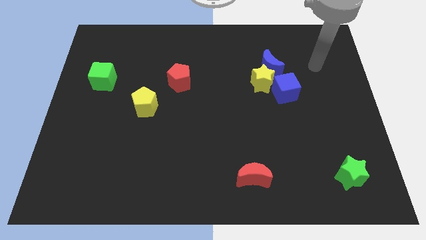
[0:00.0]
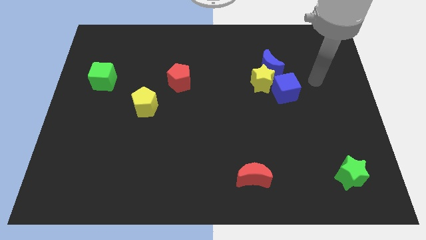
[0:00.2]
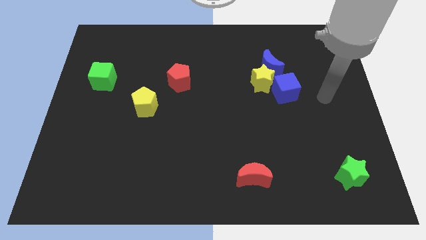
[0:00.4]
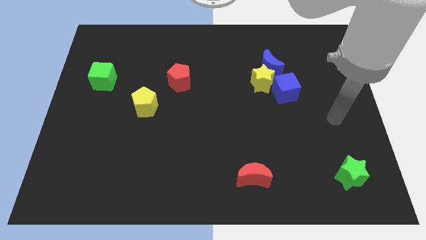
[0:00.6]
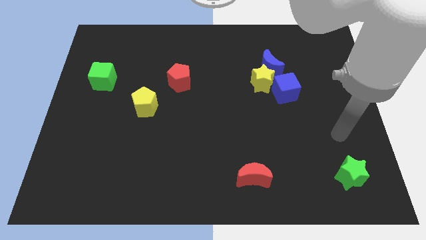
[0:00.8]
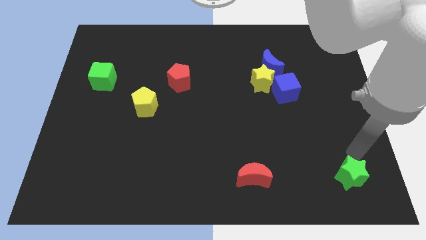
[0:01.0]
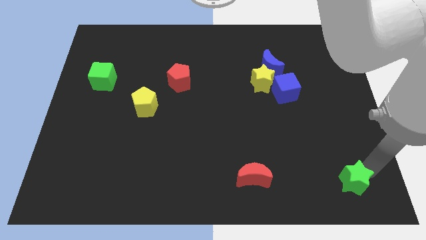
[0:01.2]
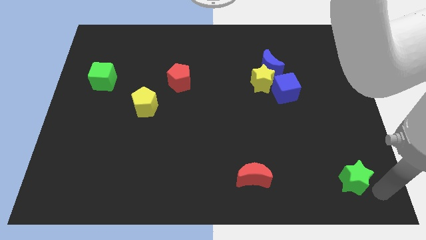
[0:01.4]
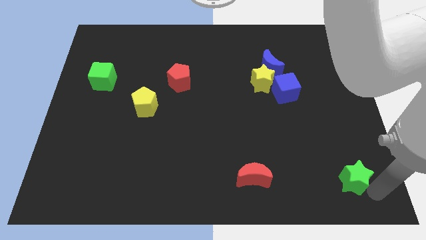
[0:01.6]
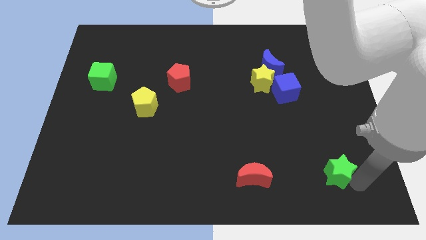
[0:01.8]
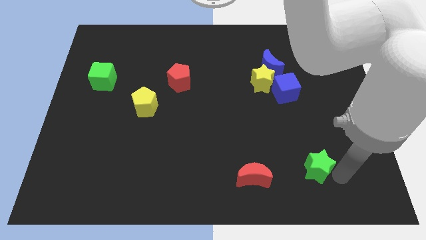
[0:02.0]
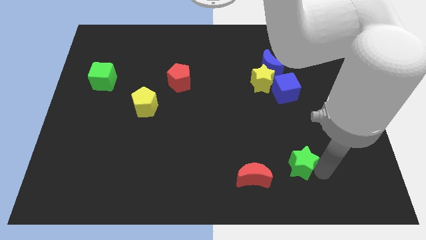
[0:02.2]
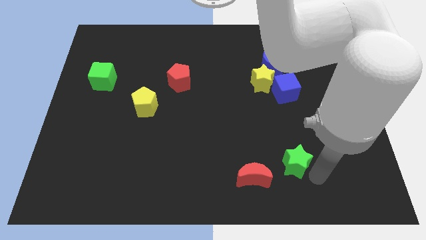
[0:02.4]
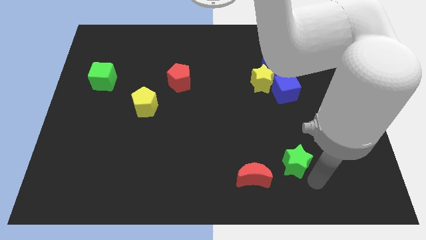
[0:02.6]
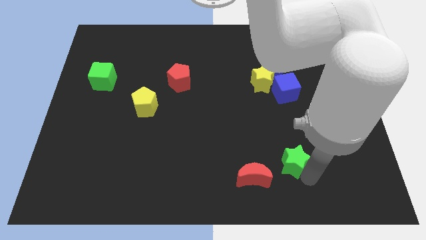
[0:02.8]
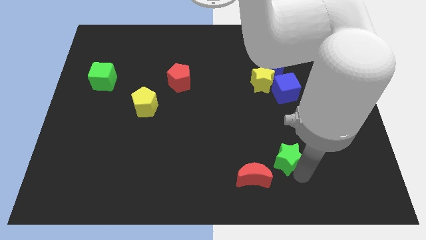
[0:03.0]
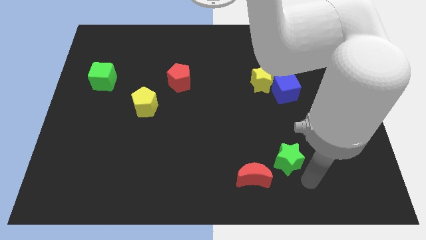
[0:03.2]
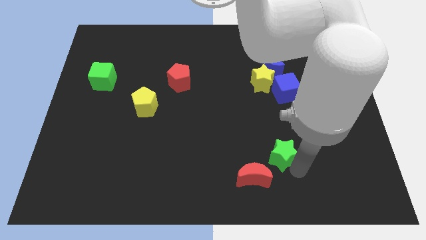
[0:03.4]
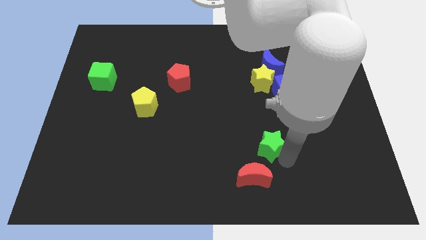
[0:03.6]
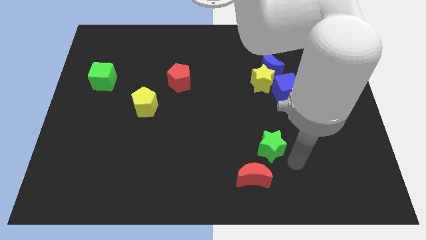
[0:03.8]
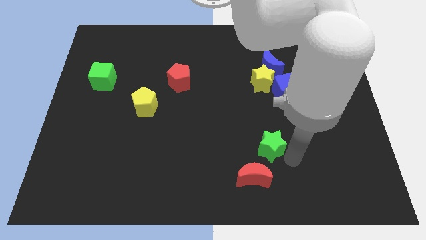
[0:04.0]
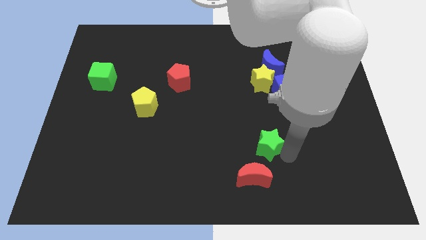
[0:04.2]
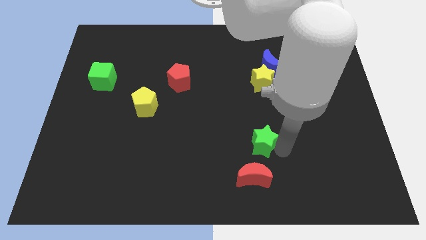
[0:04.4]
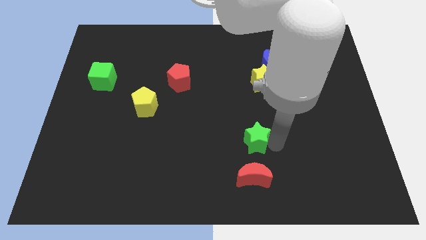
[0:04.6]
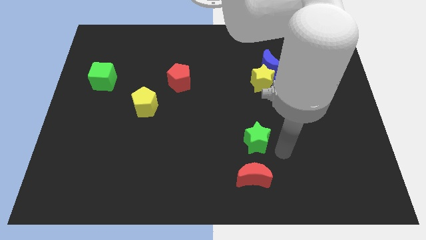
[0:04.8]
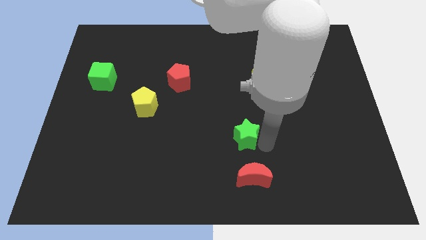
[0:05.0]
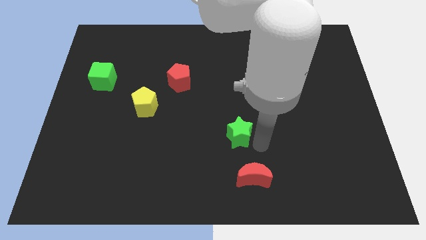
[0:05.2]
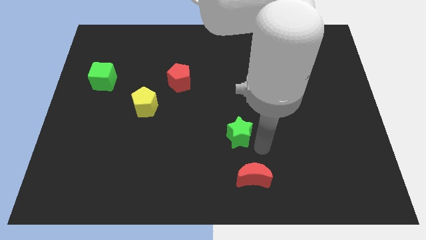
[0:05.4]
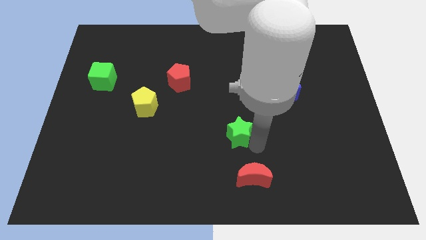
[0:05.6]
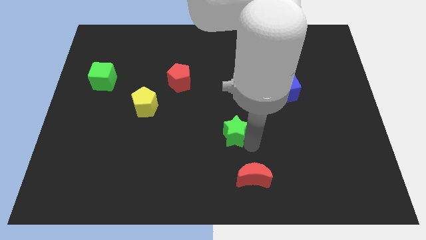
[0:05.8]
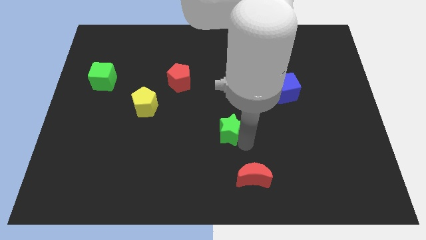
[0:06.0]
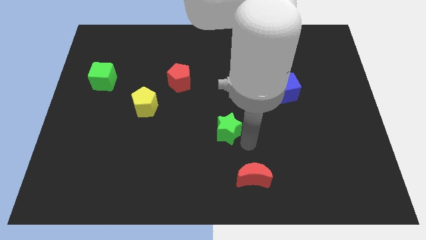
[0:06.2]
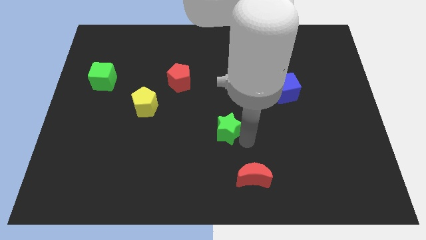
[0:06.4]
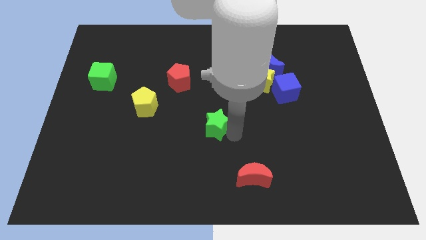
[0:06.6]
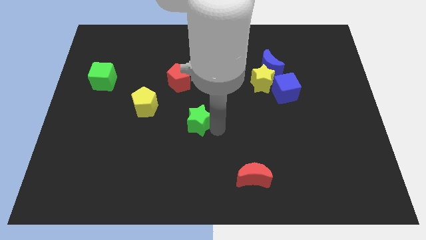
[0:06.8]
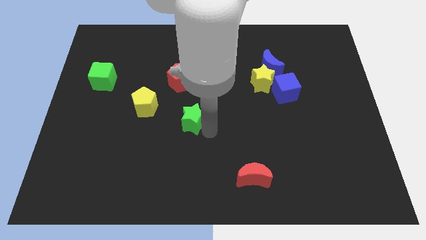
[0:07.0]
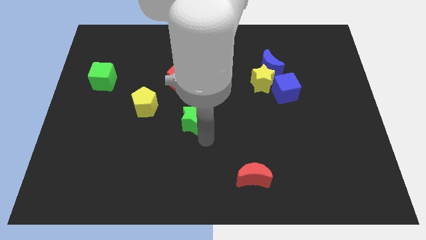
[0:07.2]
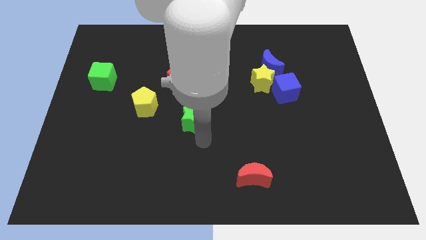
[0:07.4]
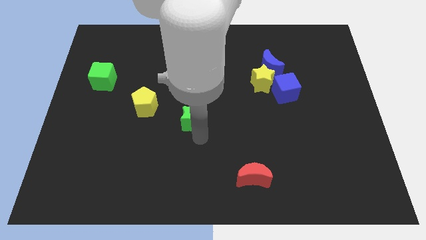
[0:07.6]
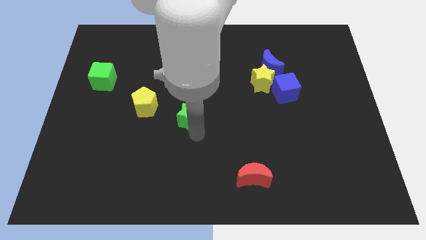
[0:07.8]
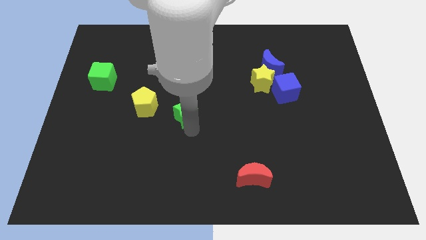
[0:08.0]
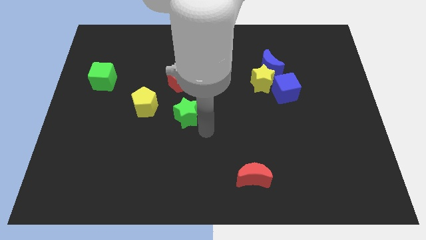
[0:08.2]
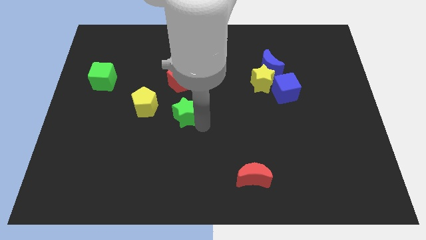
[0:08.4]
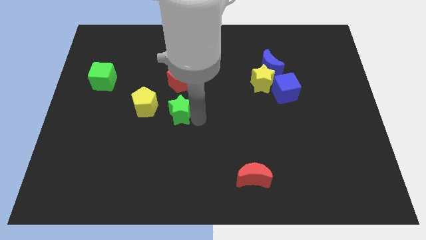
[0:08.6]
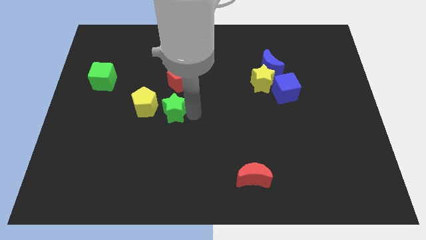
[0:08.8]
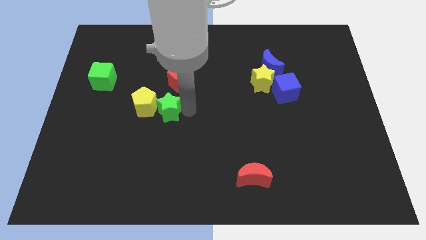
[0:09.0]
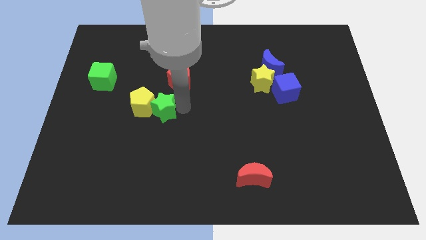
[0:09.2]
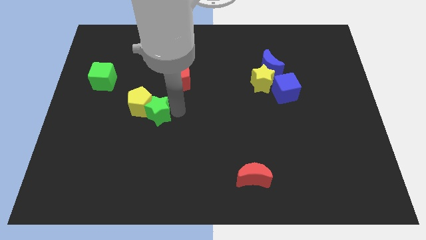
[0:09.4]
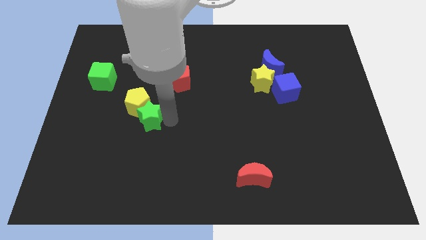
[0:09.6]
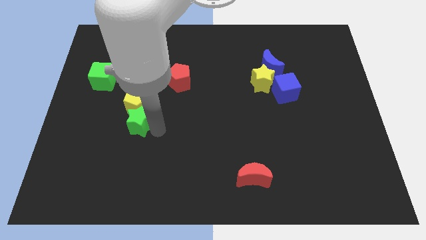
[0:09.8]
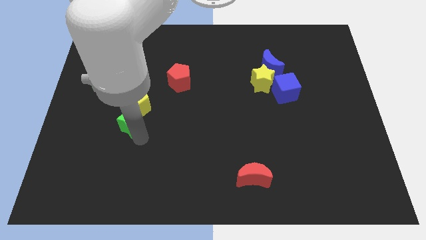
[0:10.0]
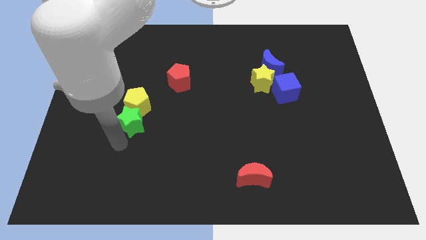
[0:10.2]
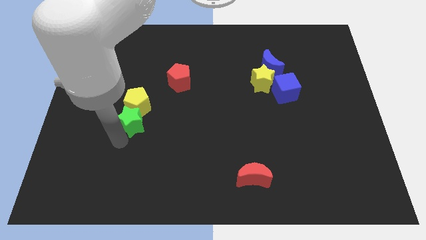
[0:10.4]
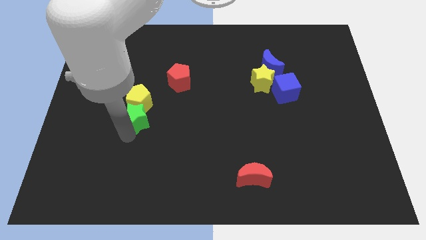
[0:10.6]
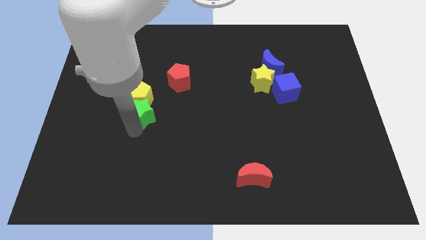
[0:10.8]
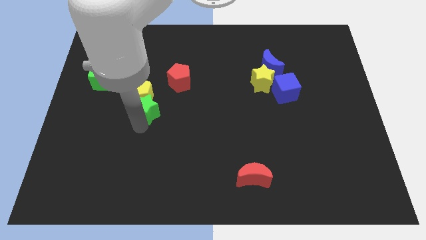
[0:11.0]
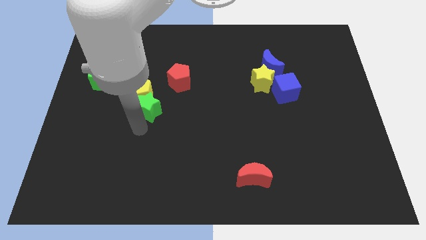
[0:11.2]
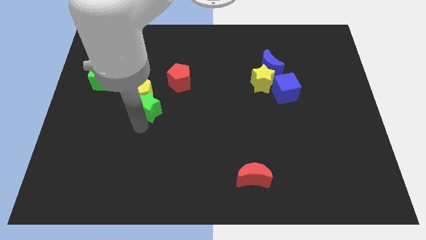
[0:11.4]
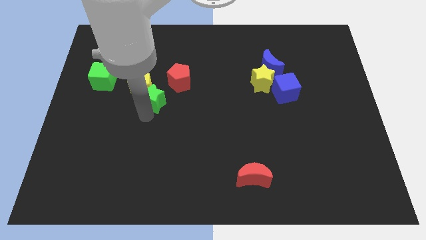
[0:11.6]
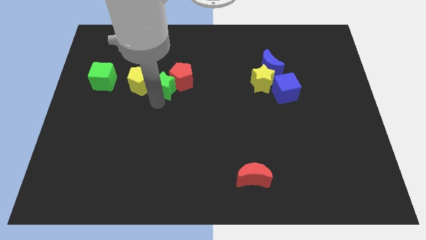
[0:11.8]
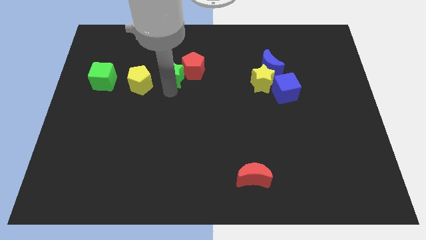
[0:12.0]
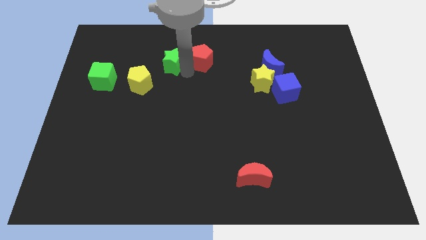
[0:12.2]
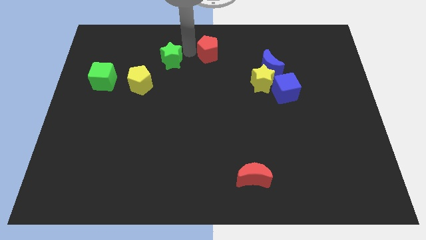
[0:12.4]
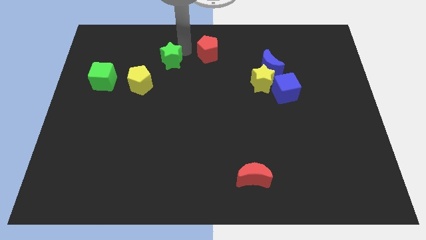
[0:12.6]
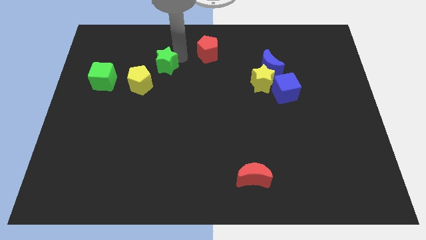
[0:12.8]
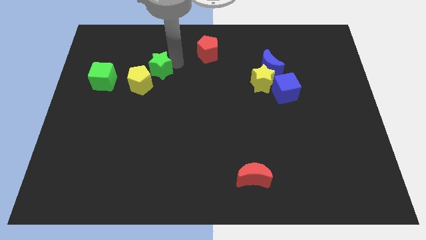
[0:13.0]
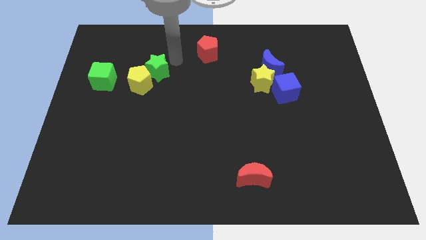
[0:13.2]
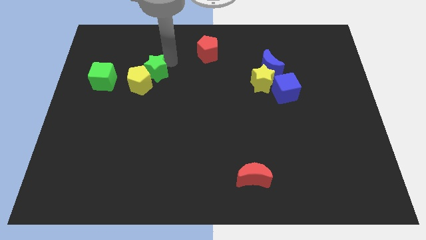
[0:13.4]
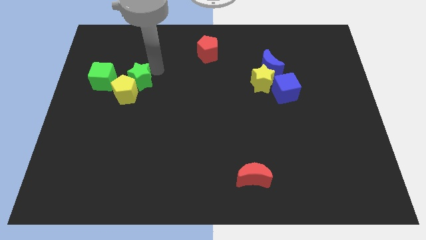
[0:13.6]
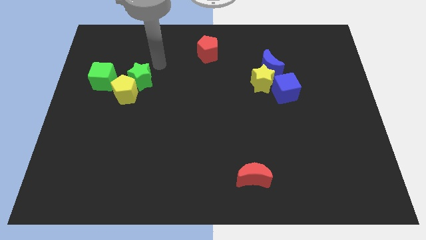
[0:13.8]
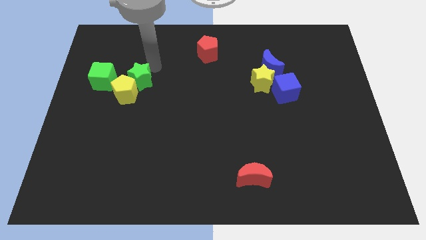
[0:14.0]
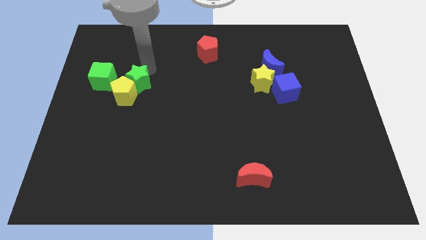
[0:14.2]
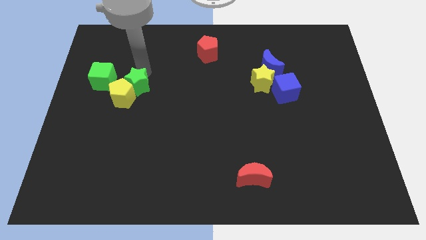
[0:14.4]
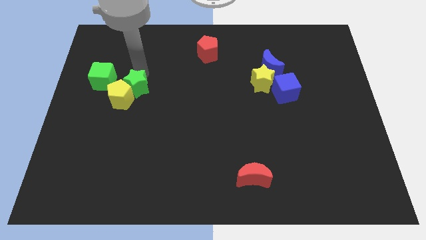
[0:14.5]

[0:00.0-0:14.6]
push the green star diagonally down and to the right of the green cube

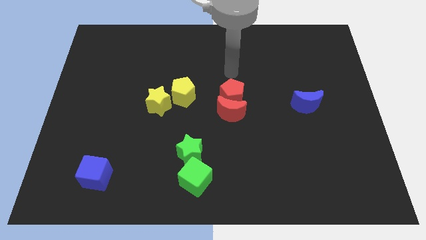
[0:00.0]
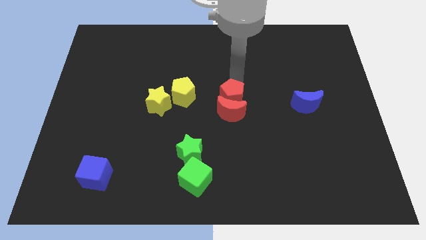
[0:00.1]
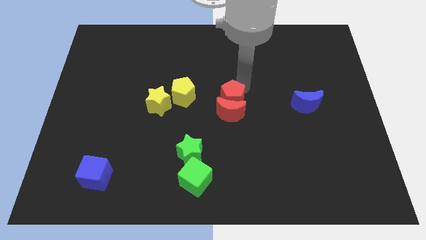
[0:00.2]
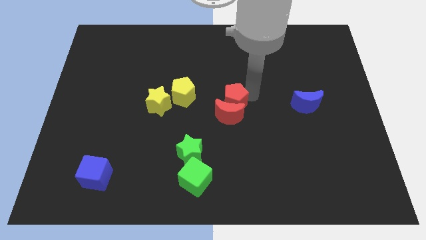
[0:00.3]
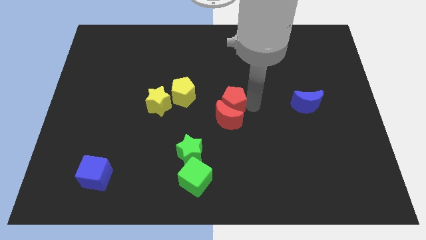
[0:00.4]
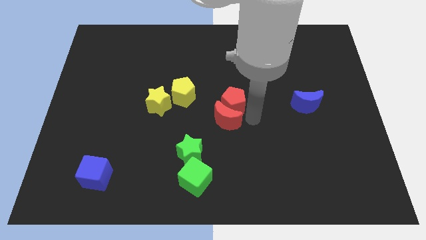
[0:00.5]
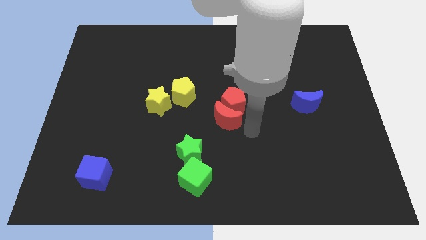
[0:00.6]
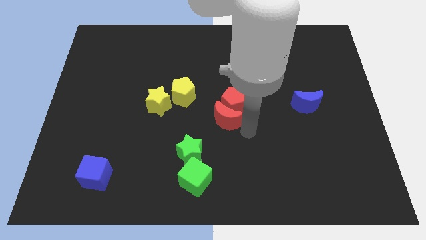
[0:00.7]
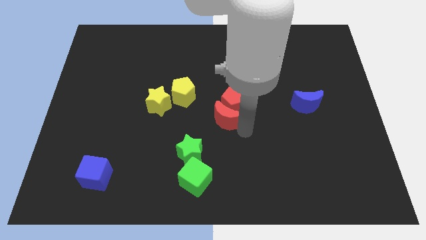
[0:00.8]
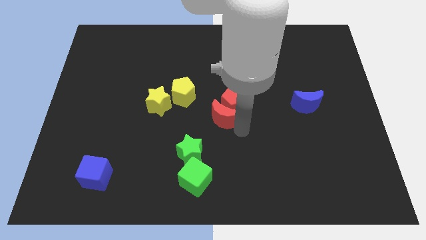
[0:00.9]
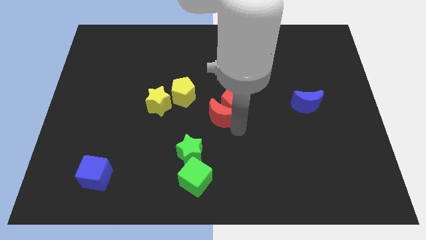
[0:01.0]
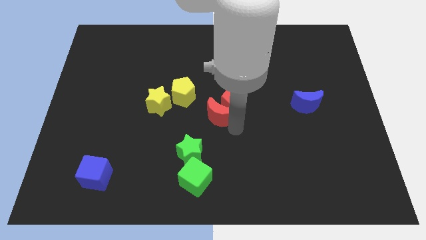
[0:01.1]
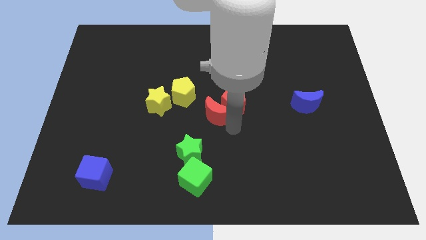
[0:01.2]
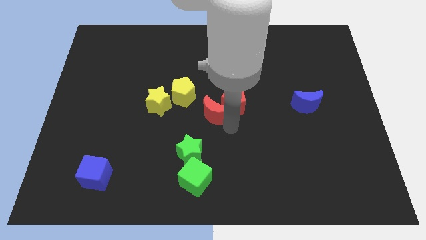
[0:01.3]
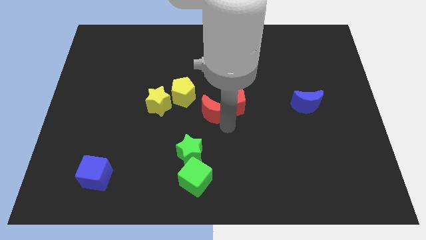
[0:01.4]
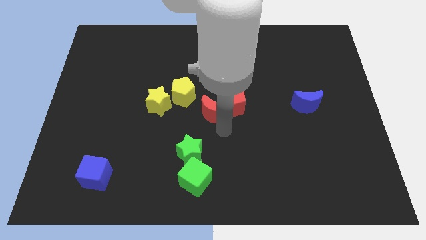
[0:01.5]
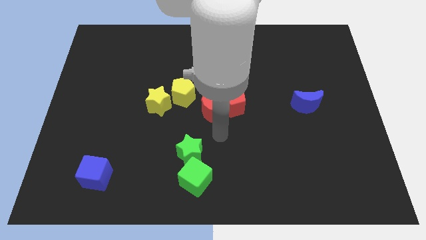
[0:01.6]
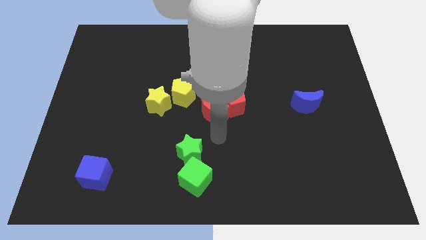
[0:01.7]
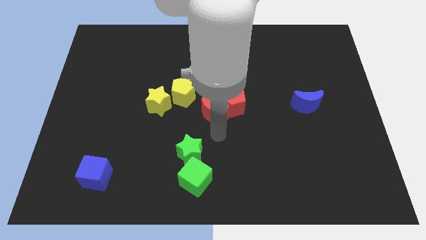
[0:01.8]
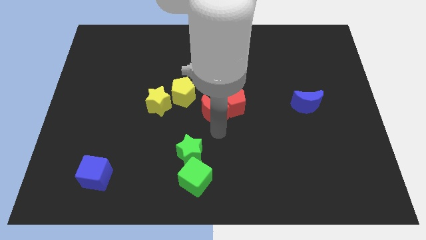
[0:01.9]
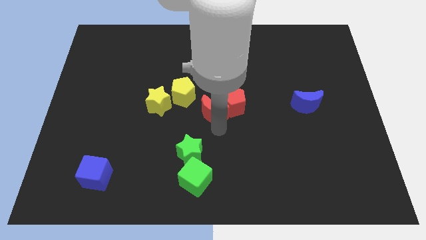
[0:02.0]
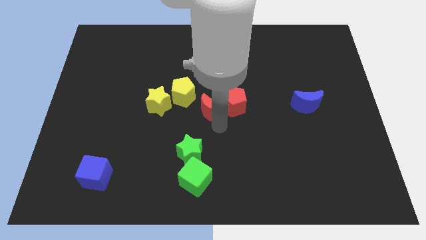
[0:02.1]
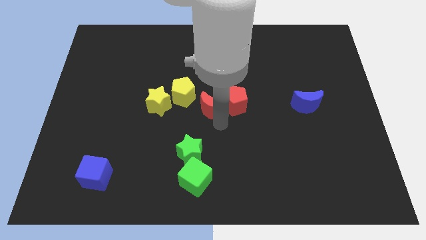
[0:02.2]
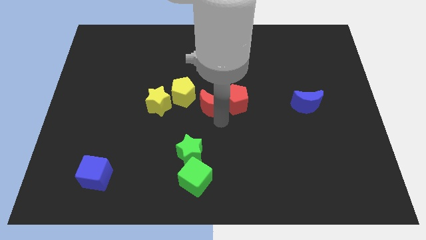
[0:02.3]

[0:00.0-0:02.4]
push the red moon to the top left of the red pentagon
